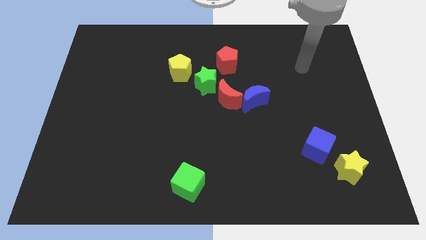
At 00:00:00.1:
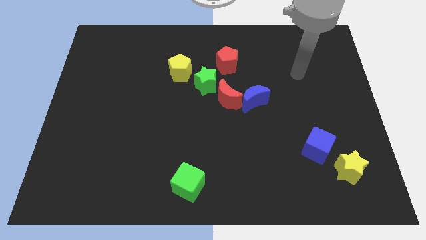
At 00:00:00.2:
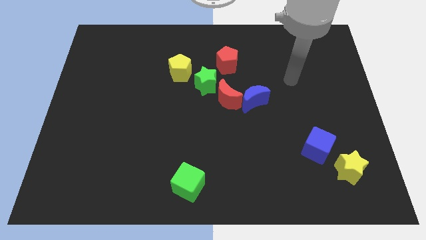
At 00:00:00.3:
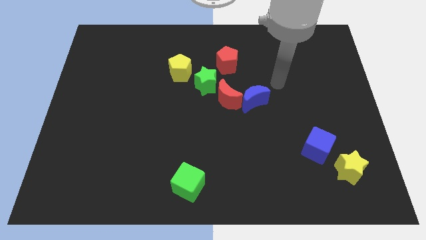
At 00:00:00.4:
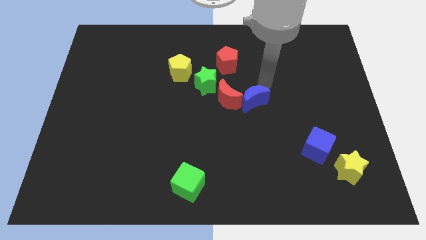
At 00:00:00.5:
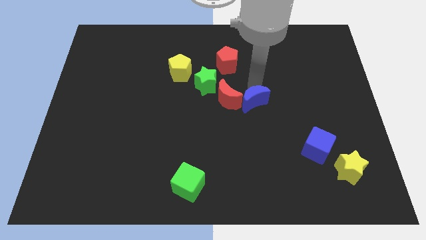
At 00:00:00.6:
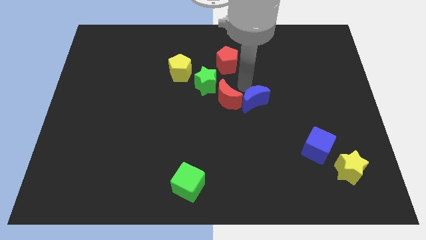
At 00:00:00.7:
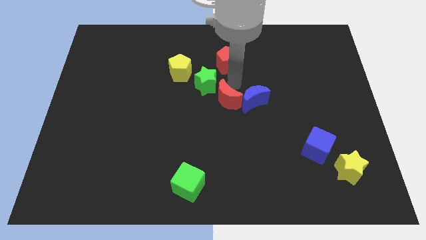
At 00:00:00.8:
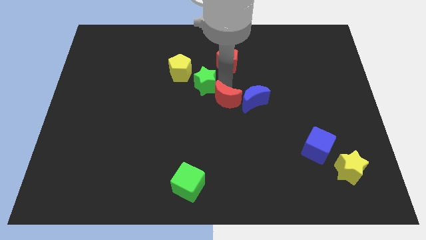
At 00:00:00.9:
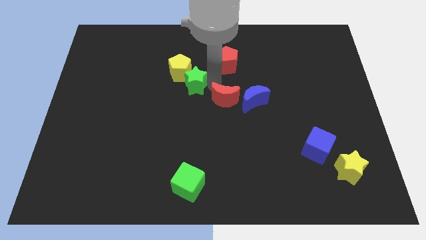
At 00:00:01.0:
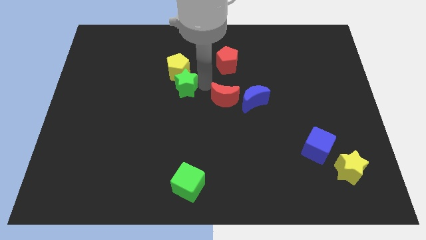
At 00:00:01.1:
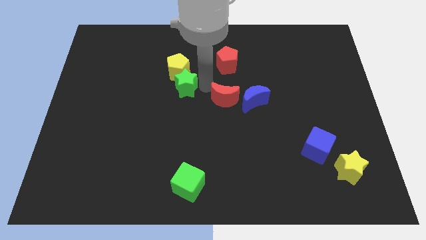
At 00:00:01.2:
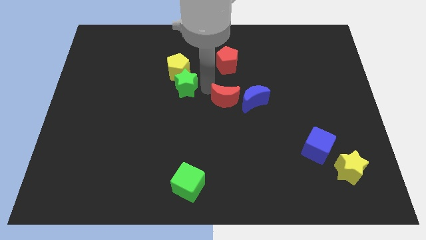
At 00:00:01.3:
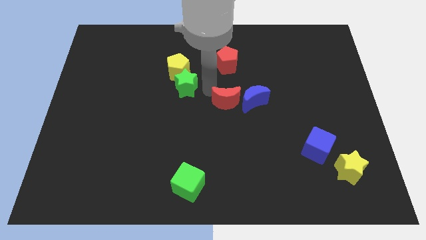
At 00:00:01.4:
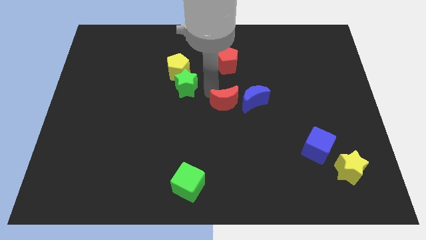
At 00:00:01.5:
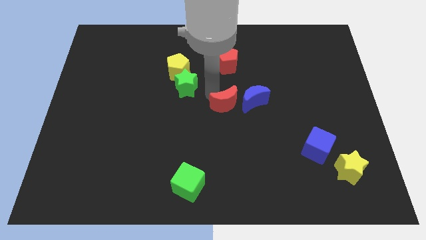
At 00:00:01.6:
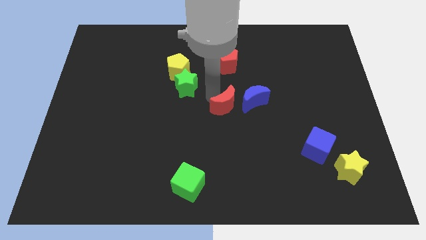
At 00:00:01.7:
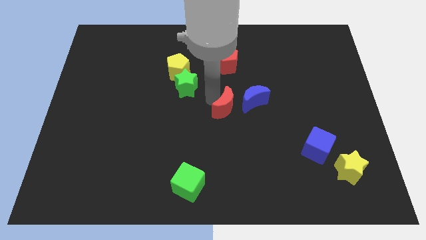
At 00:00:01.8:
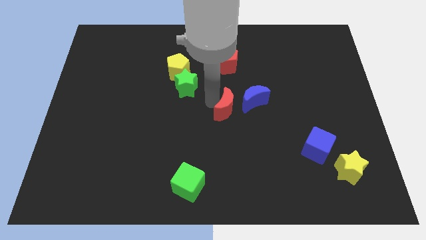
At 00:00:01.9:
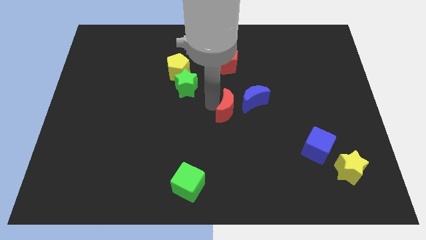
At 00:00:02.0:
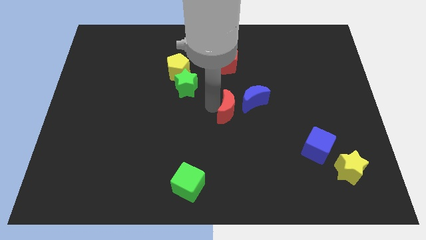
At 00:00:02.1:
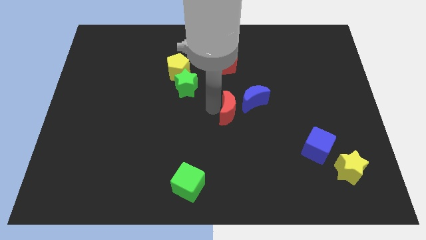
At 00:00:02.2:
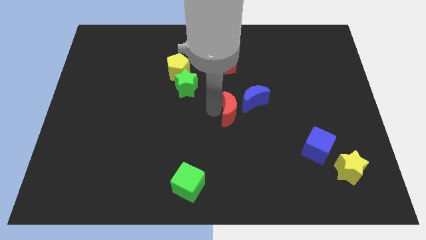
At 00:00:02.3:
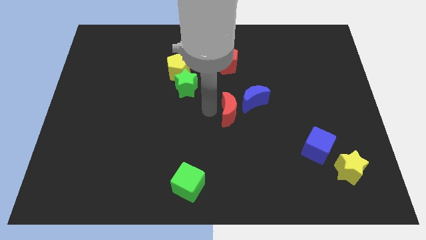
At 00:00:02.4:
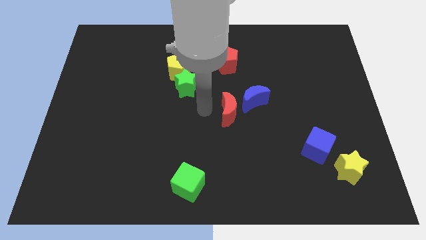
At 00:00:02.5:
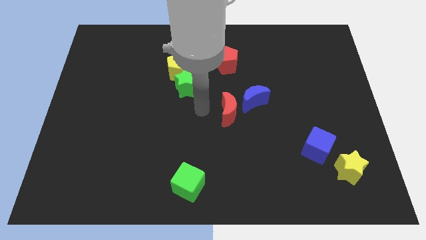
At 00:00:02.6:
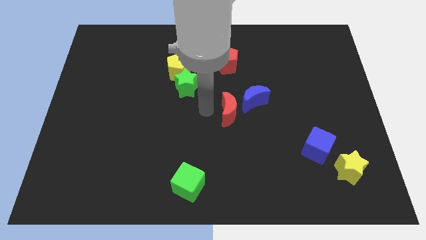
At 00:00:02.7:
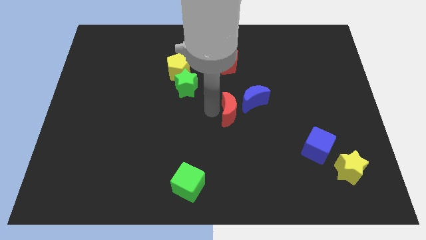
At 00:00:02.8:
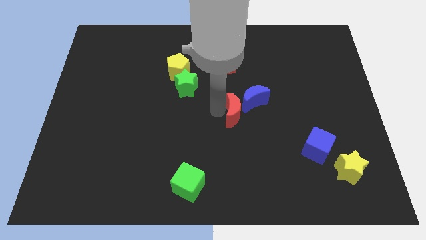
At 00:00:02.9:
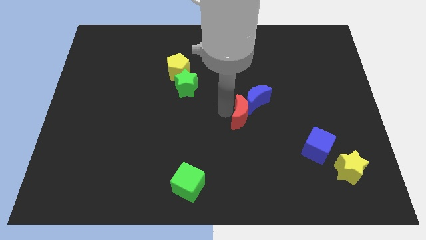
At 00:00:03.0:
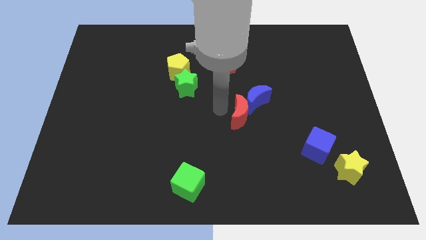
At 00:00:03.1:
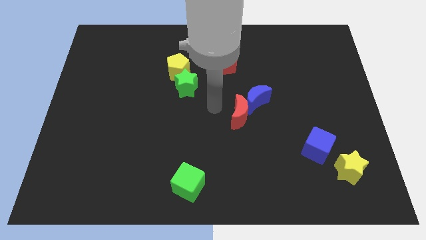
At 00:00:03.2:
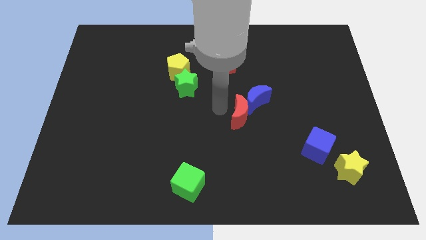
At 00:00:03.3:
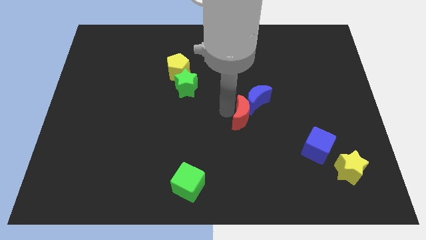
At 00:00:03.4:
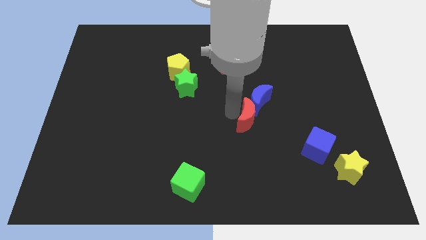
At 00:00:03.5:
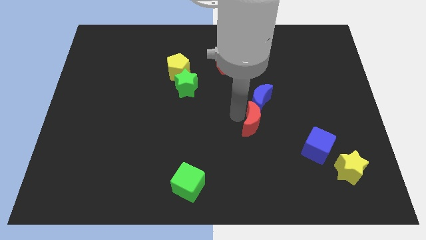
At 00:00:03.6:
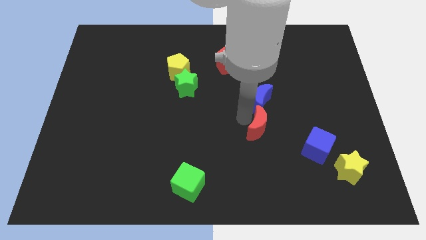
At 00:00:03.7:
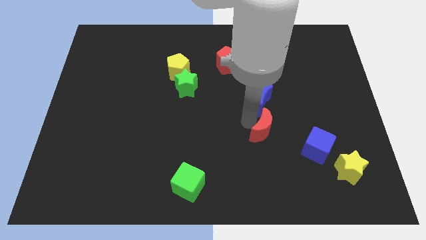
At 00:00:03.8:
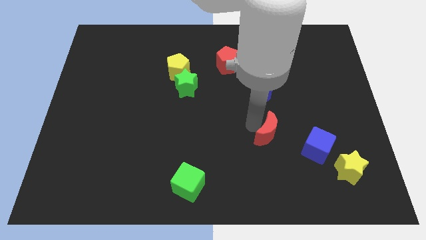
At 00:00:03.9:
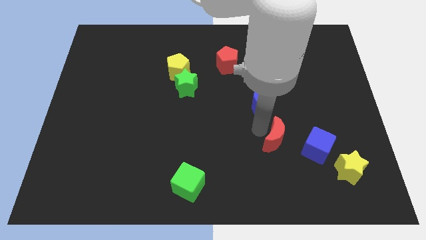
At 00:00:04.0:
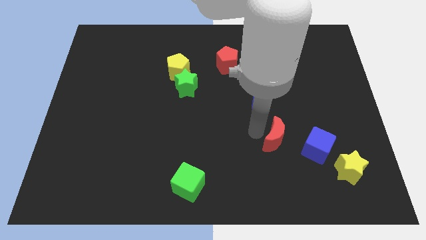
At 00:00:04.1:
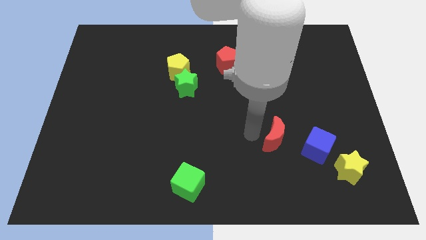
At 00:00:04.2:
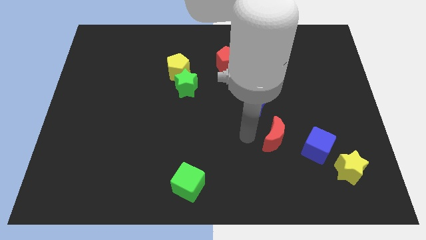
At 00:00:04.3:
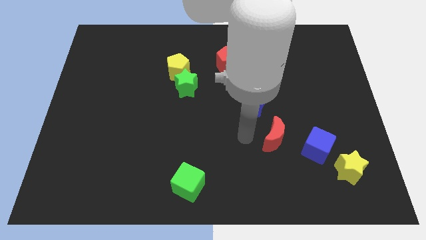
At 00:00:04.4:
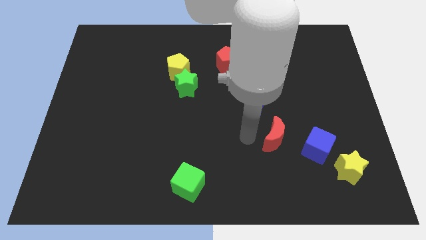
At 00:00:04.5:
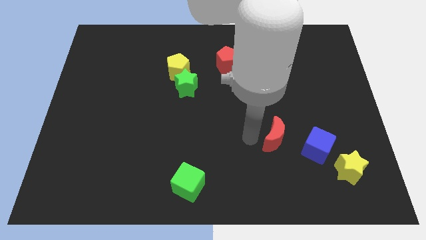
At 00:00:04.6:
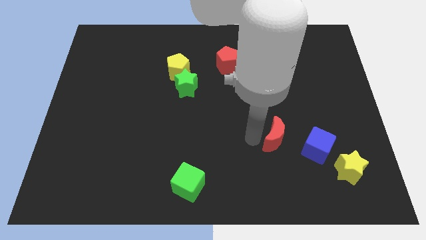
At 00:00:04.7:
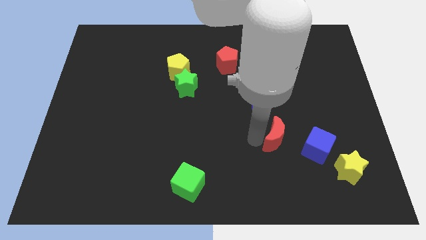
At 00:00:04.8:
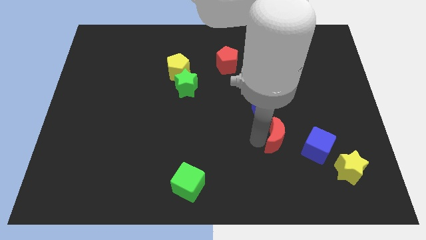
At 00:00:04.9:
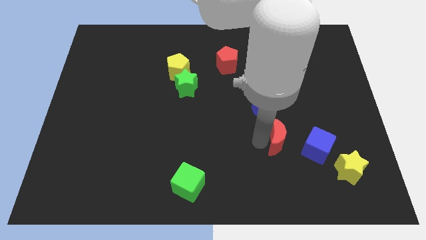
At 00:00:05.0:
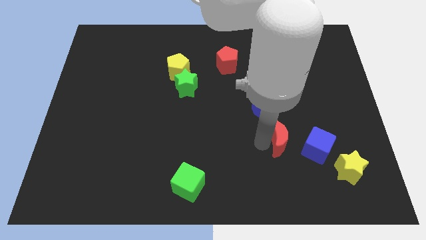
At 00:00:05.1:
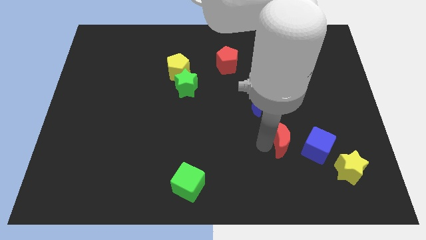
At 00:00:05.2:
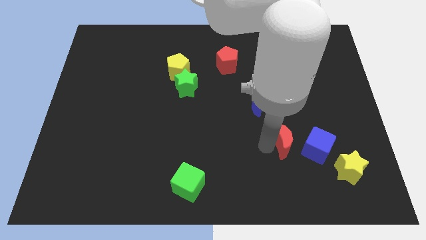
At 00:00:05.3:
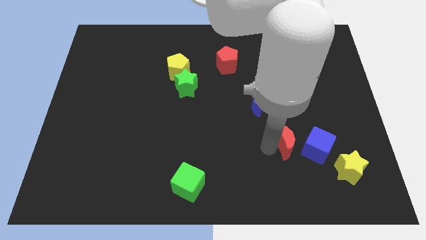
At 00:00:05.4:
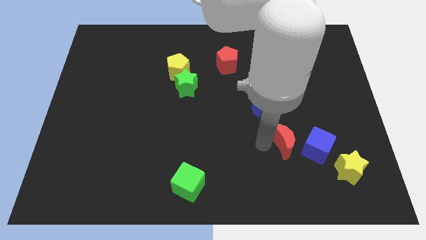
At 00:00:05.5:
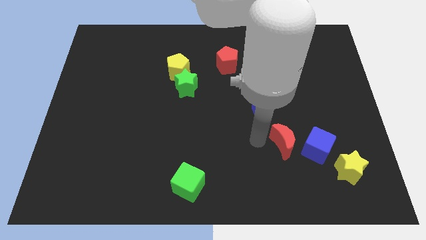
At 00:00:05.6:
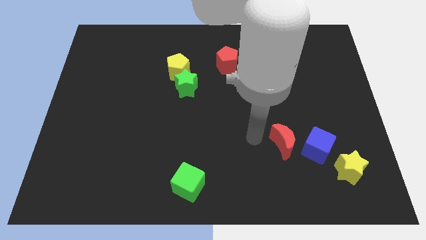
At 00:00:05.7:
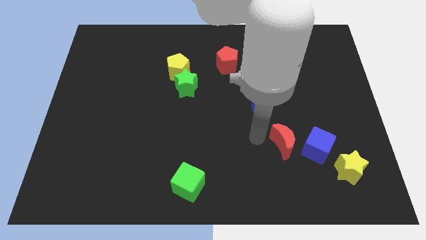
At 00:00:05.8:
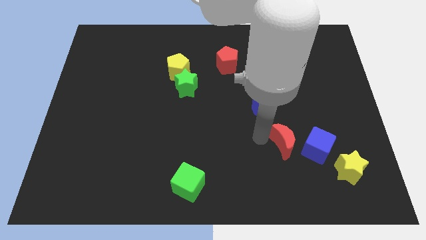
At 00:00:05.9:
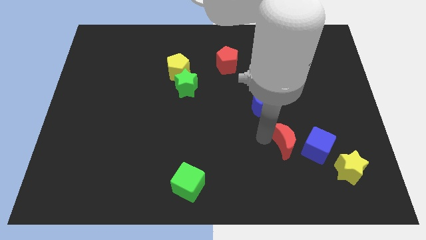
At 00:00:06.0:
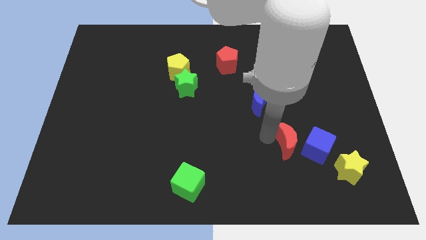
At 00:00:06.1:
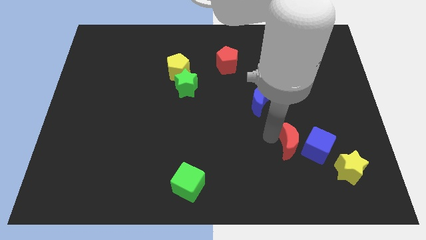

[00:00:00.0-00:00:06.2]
put the red moon close to the blue cube
